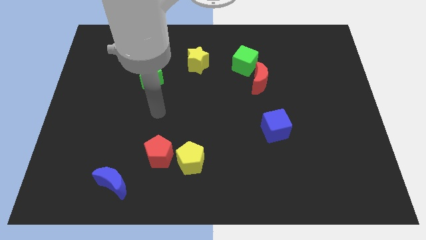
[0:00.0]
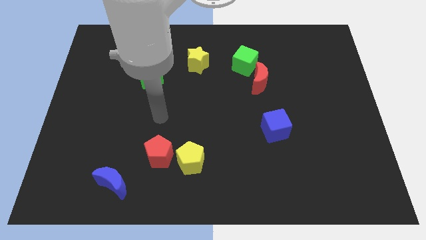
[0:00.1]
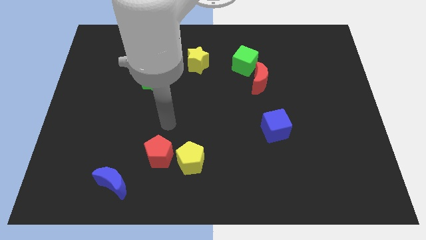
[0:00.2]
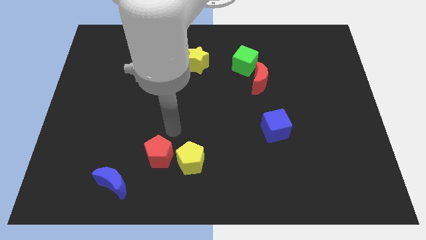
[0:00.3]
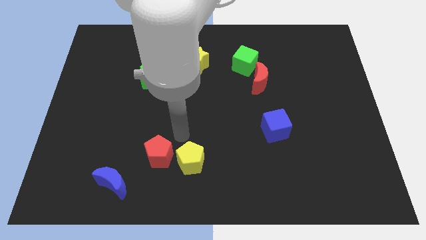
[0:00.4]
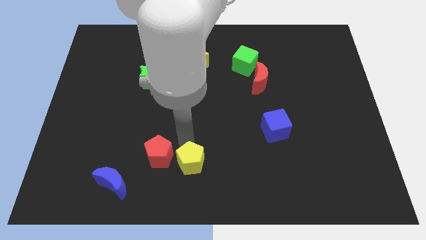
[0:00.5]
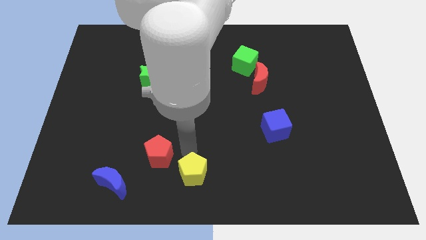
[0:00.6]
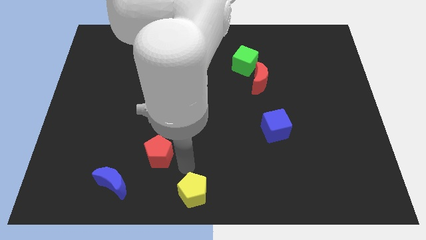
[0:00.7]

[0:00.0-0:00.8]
pull the red pentagon apart from the yellow pentagon

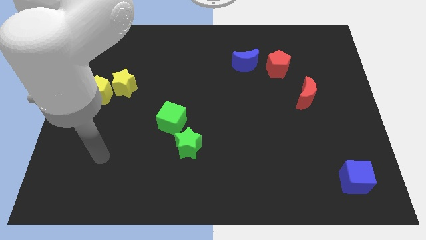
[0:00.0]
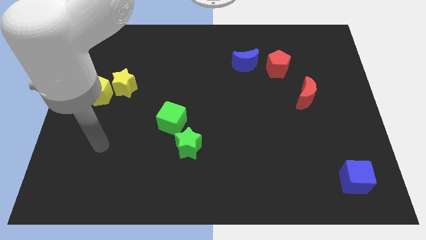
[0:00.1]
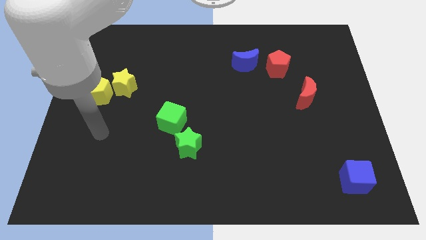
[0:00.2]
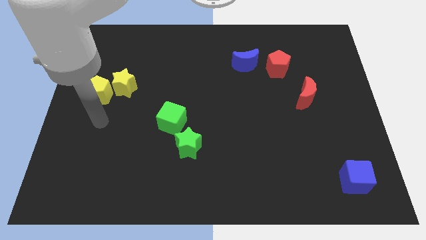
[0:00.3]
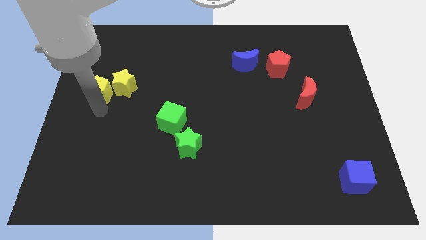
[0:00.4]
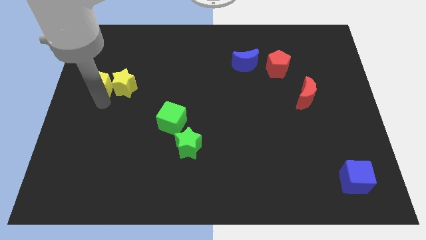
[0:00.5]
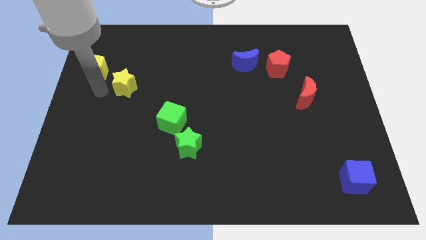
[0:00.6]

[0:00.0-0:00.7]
move the yellow star away from the yellow pentagon

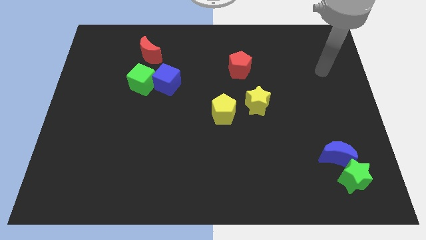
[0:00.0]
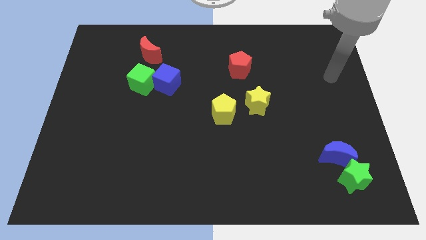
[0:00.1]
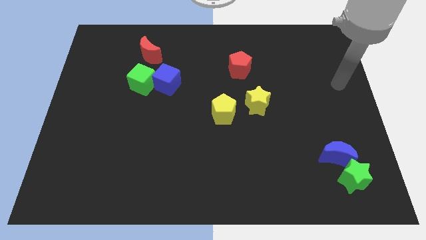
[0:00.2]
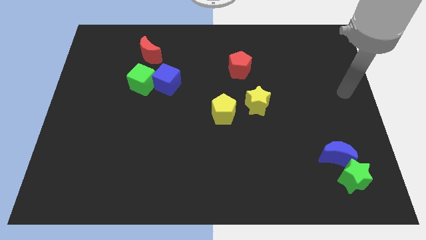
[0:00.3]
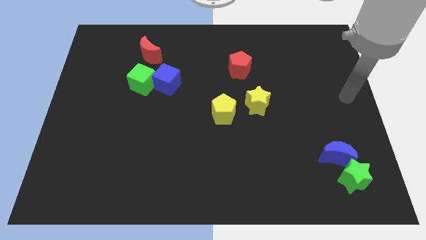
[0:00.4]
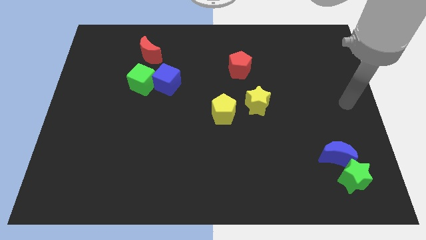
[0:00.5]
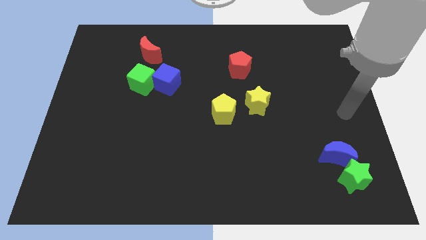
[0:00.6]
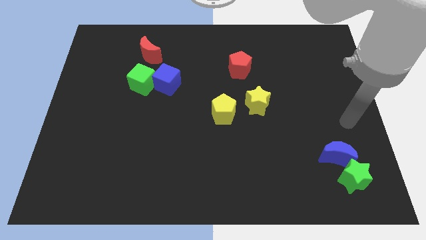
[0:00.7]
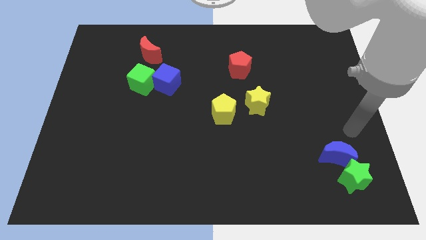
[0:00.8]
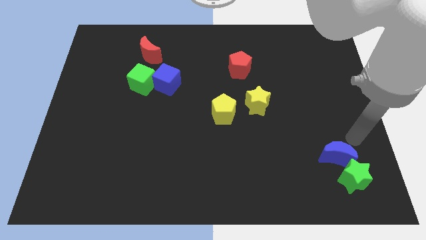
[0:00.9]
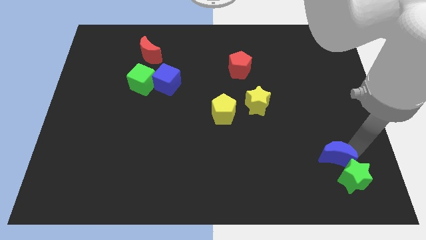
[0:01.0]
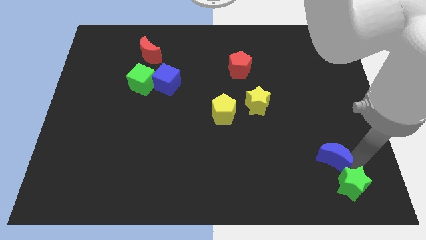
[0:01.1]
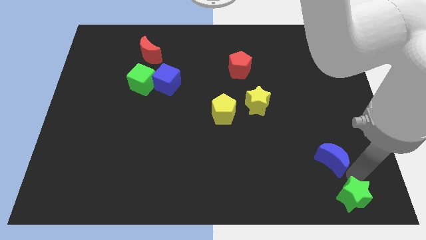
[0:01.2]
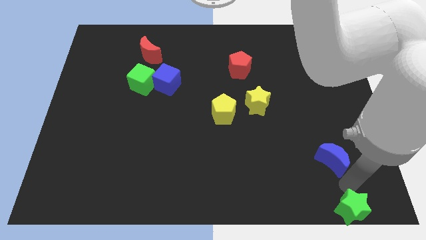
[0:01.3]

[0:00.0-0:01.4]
move the blue moon away from the green star

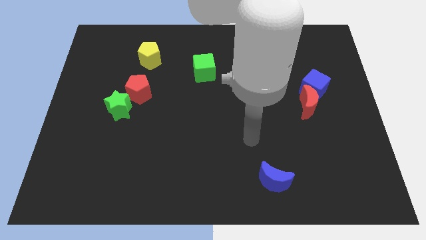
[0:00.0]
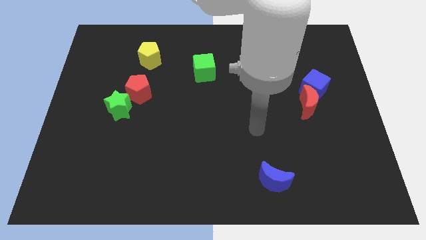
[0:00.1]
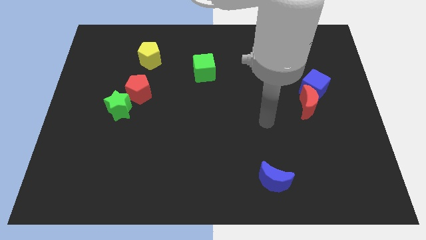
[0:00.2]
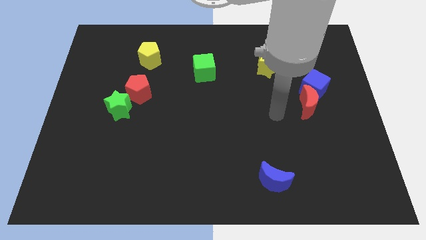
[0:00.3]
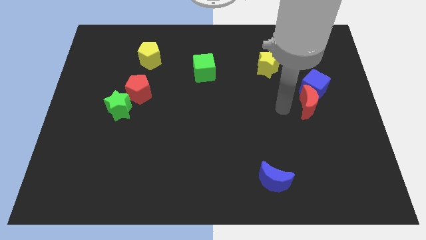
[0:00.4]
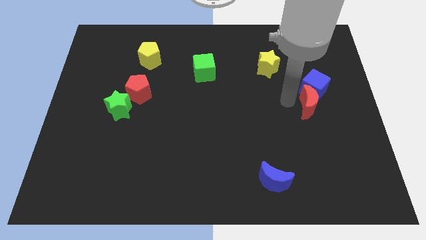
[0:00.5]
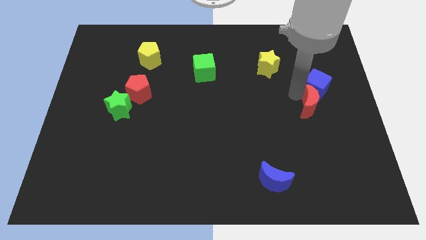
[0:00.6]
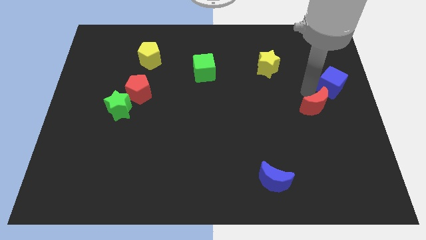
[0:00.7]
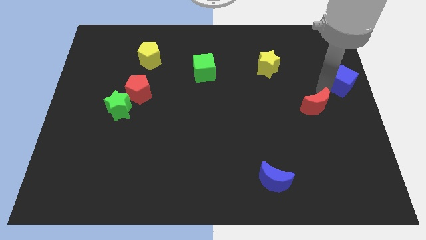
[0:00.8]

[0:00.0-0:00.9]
separate the red moon from the blue cube

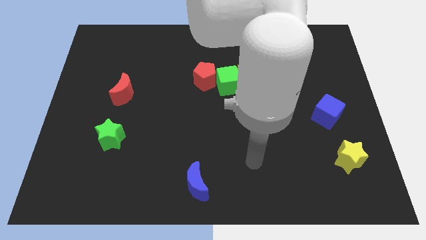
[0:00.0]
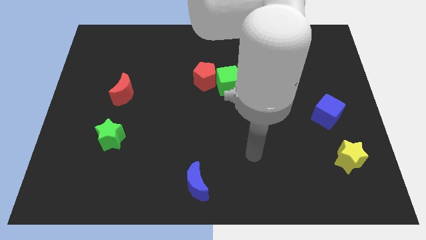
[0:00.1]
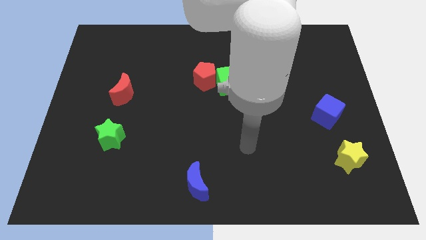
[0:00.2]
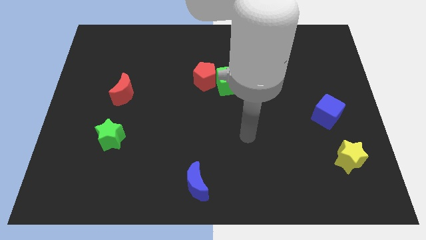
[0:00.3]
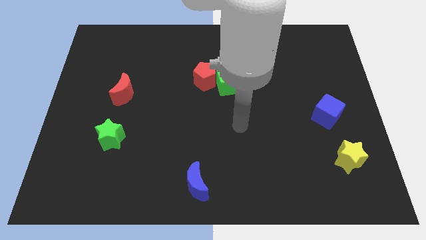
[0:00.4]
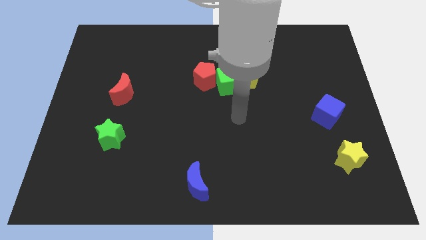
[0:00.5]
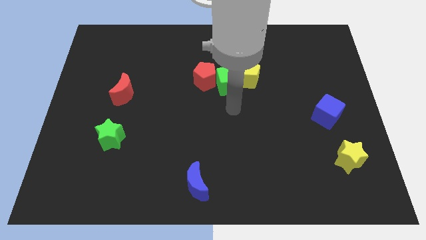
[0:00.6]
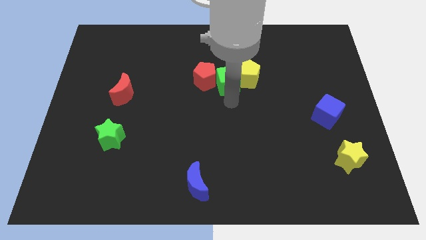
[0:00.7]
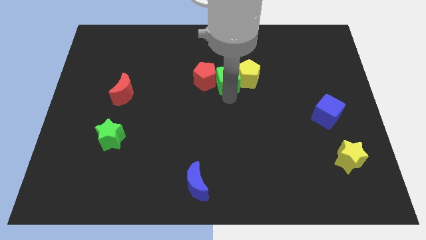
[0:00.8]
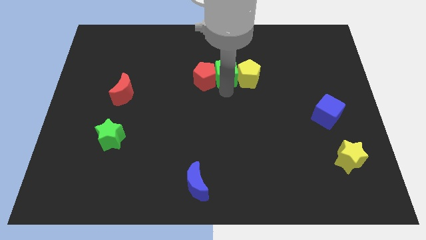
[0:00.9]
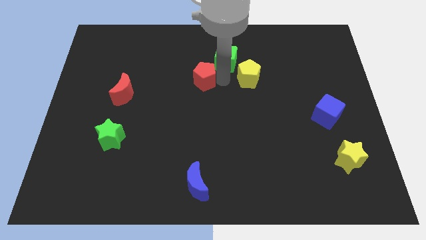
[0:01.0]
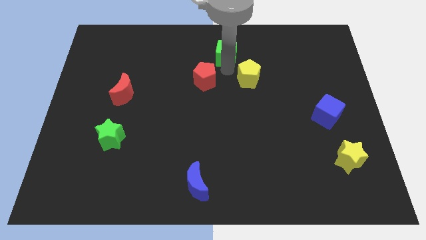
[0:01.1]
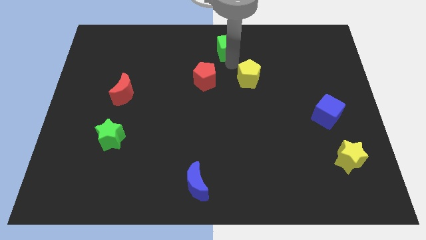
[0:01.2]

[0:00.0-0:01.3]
separate the yellow pentagon from the green cube

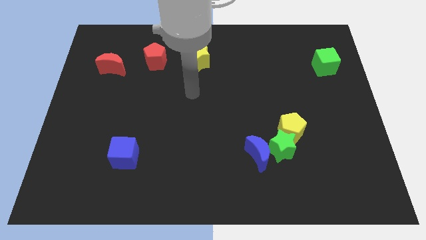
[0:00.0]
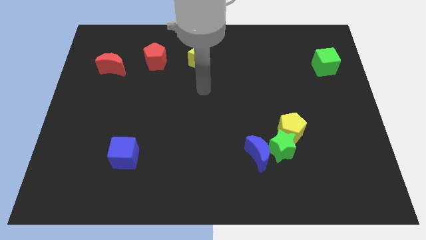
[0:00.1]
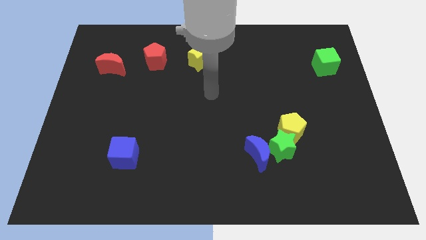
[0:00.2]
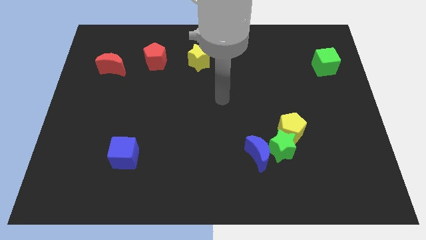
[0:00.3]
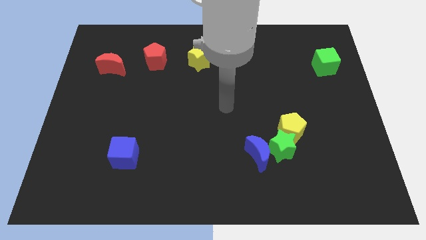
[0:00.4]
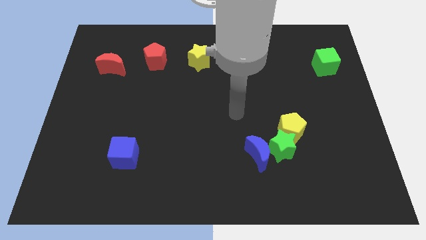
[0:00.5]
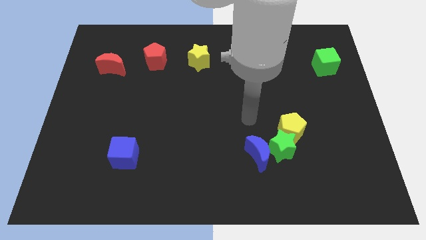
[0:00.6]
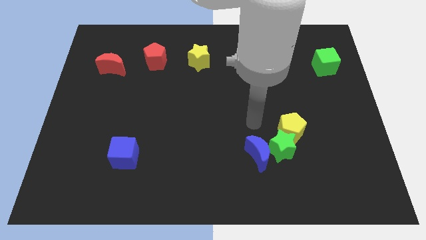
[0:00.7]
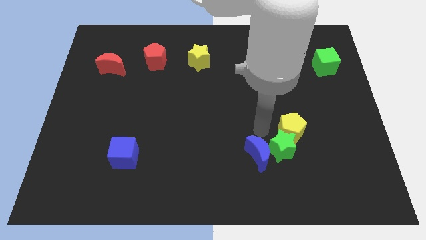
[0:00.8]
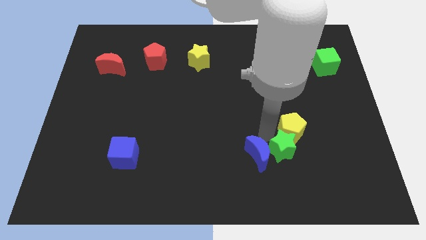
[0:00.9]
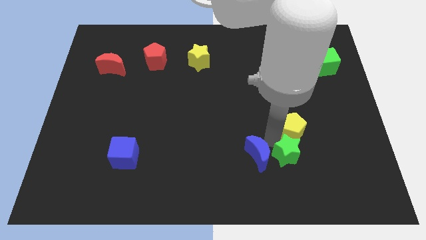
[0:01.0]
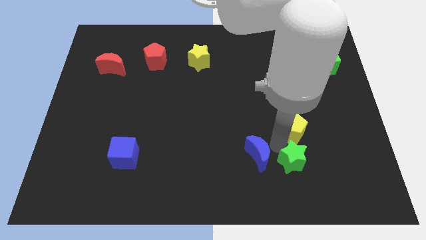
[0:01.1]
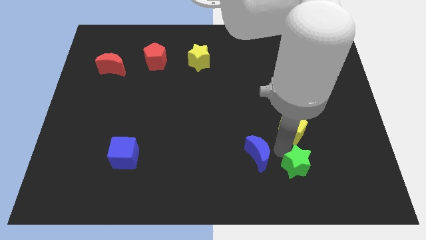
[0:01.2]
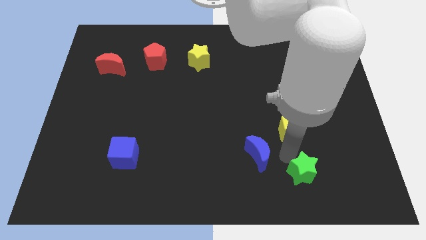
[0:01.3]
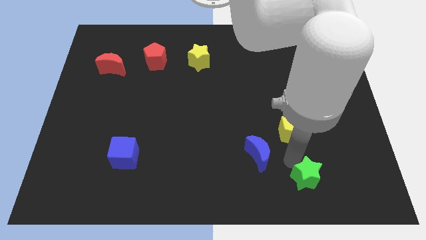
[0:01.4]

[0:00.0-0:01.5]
separate the green star from the yellow pentagon and blue moon

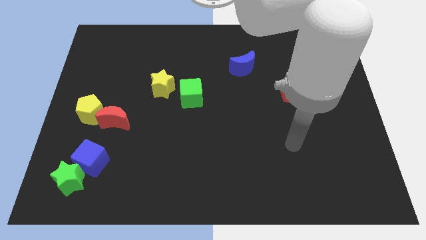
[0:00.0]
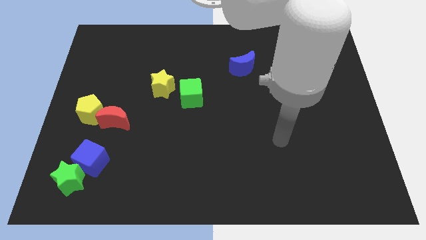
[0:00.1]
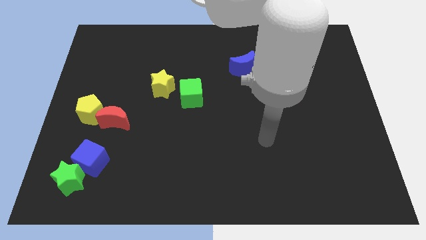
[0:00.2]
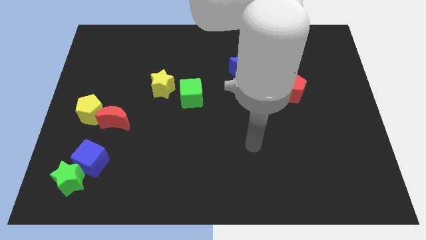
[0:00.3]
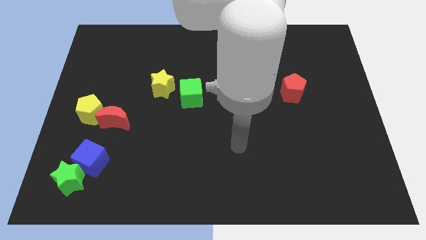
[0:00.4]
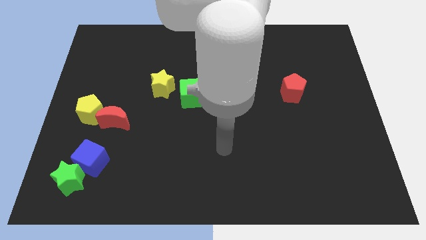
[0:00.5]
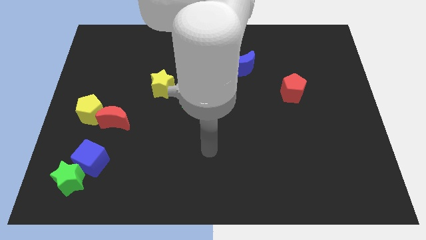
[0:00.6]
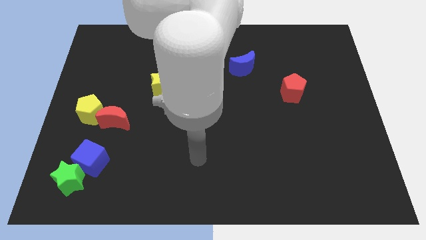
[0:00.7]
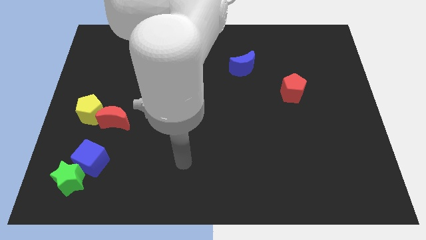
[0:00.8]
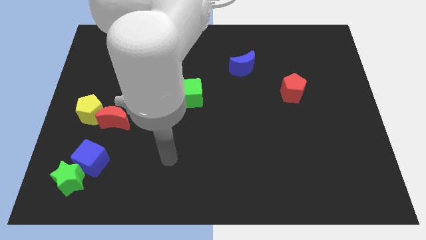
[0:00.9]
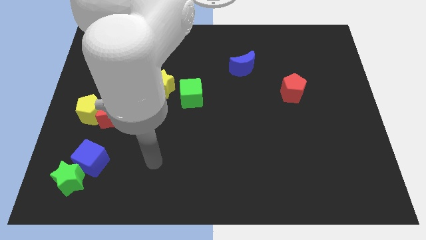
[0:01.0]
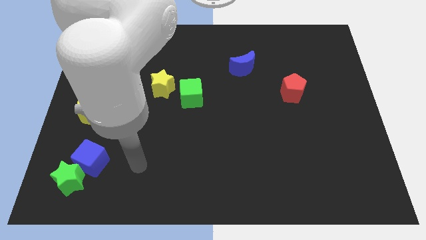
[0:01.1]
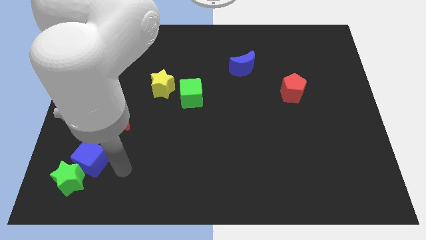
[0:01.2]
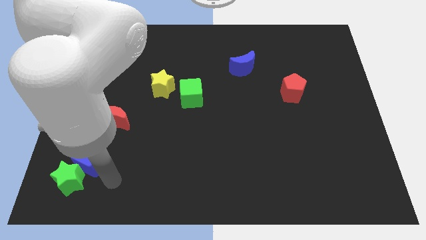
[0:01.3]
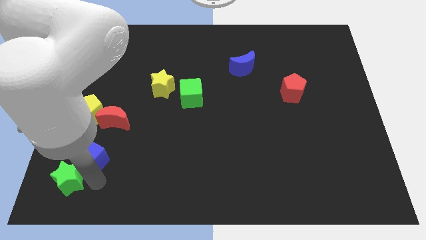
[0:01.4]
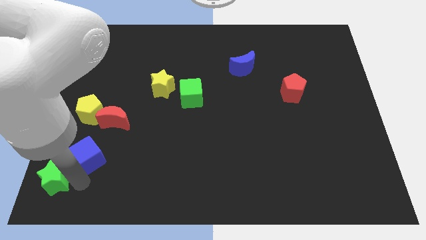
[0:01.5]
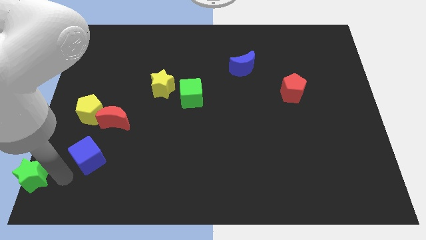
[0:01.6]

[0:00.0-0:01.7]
move the blue cube away from the green star

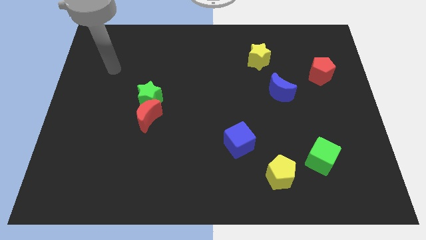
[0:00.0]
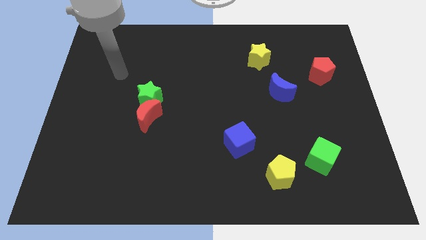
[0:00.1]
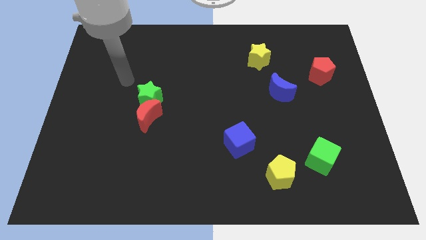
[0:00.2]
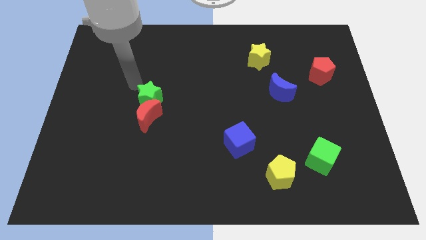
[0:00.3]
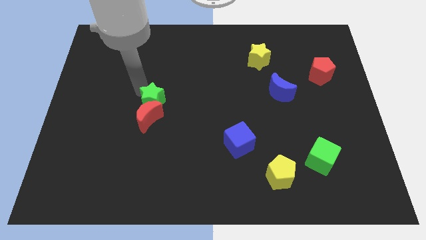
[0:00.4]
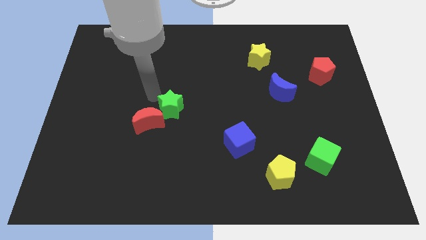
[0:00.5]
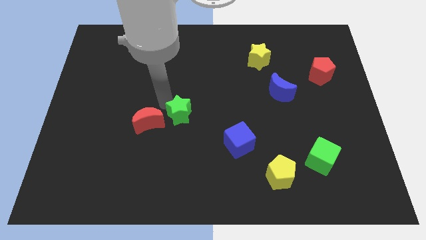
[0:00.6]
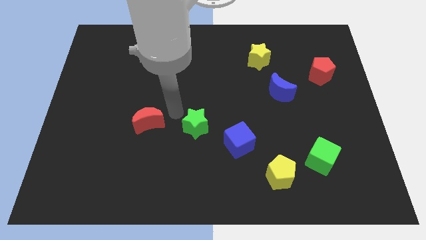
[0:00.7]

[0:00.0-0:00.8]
move the red moon away from the green star

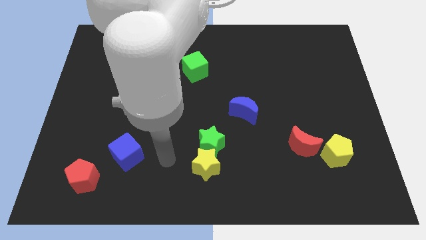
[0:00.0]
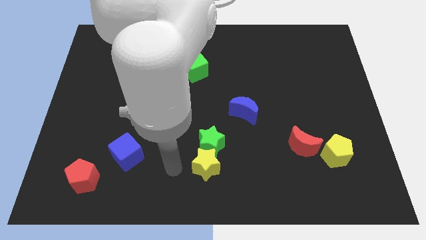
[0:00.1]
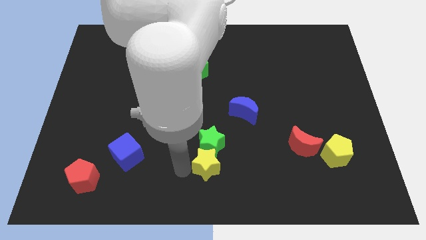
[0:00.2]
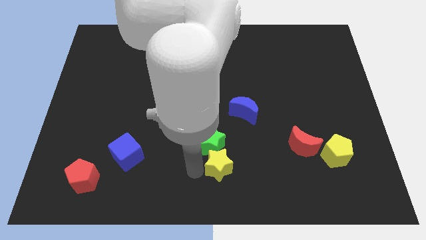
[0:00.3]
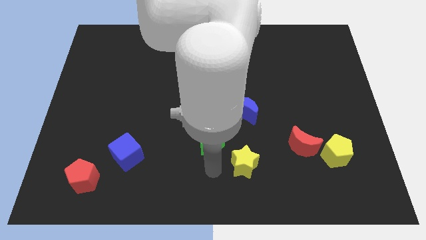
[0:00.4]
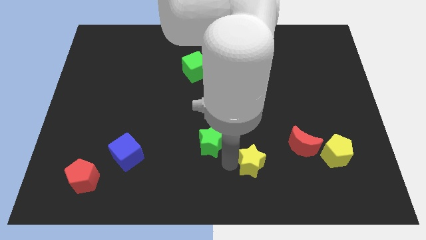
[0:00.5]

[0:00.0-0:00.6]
separate the green star from the yellow star
